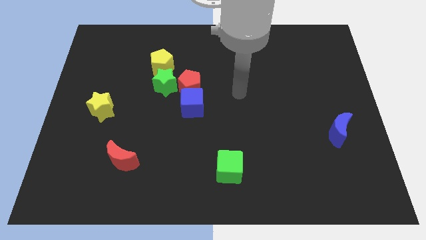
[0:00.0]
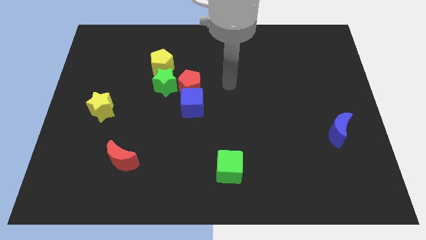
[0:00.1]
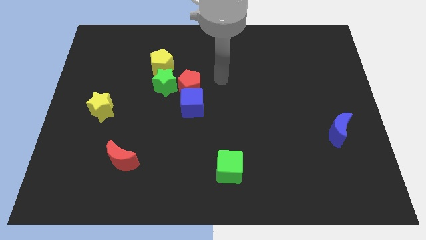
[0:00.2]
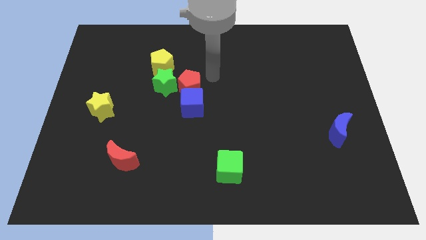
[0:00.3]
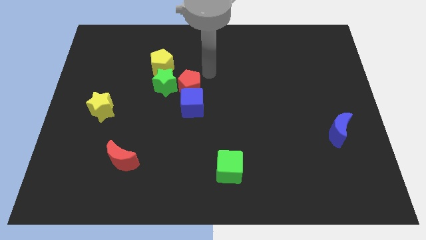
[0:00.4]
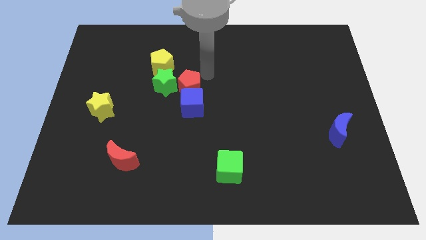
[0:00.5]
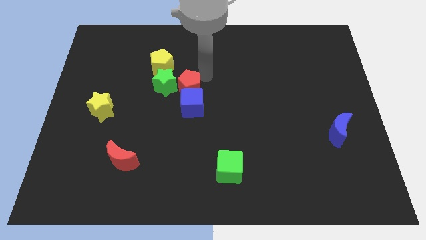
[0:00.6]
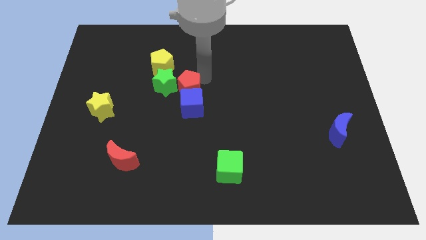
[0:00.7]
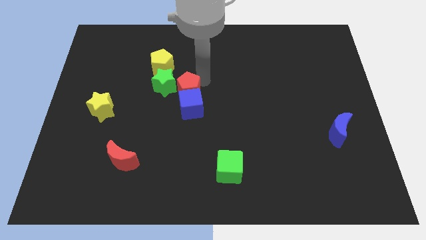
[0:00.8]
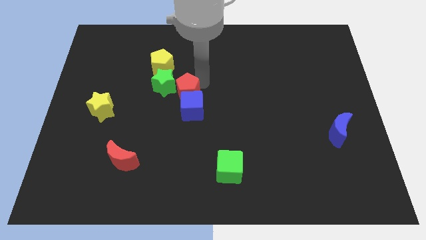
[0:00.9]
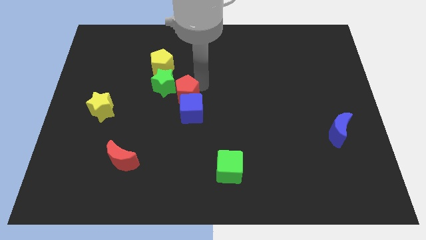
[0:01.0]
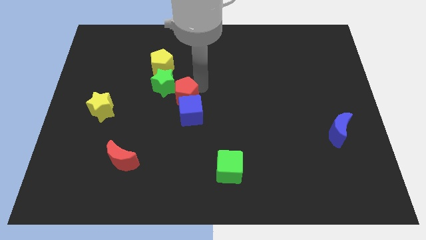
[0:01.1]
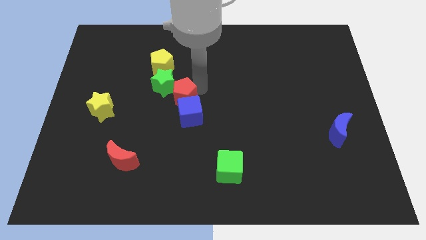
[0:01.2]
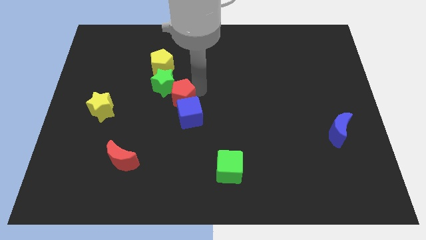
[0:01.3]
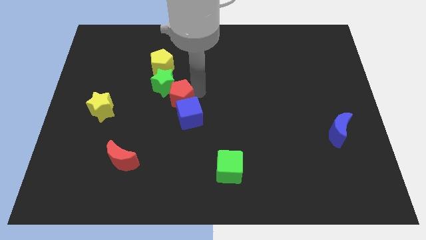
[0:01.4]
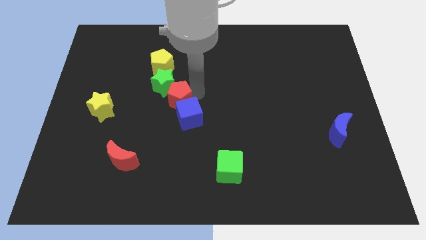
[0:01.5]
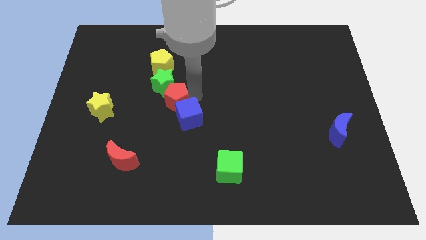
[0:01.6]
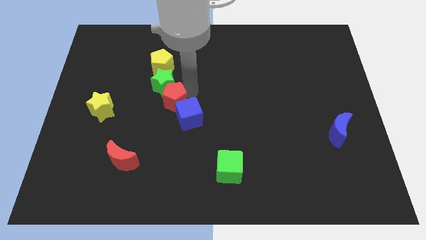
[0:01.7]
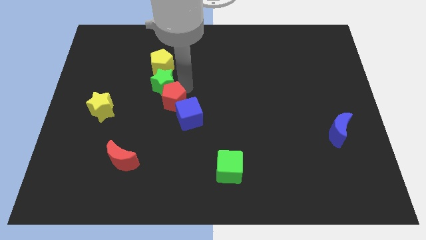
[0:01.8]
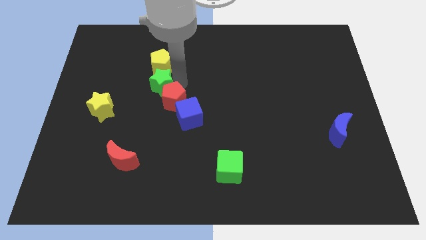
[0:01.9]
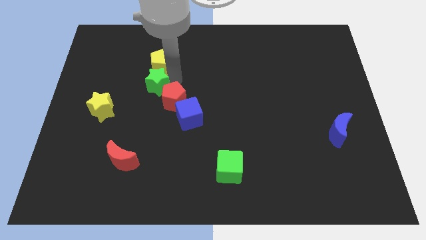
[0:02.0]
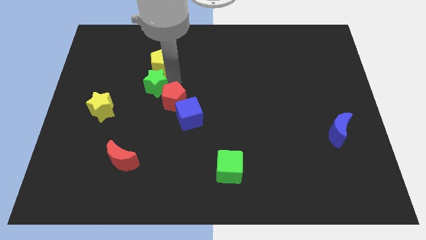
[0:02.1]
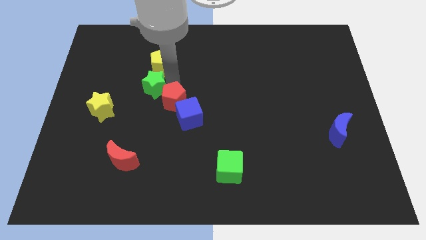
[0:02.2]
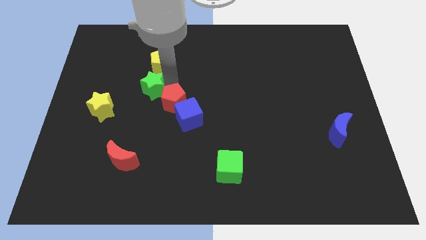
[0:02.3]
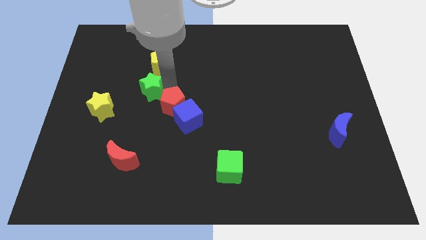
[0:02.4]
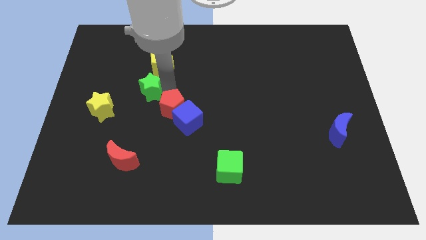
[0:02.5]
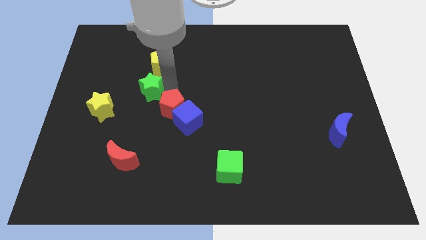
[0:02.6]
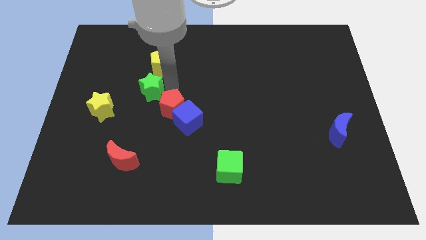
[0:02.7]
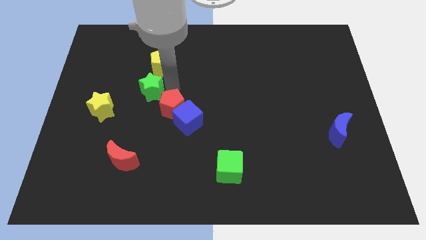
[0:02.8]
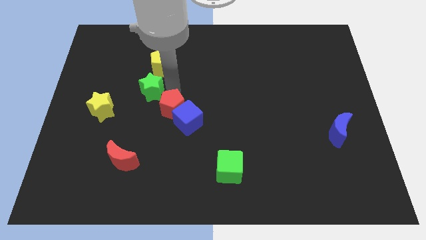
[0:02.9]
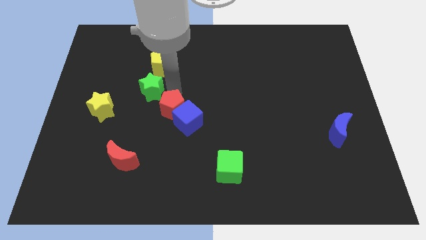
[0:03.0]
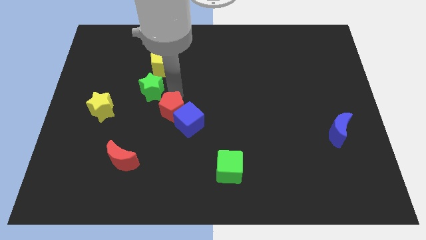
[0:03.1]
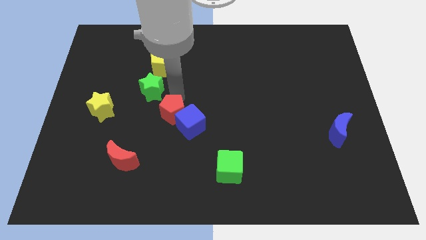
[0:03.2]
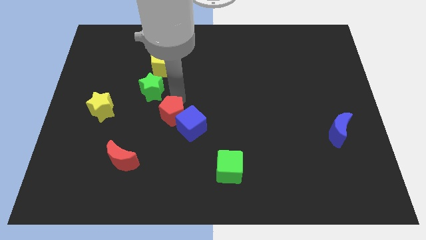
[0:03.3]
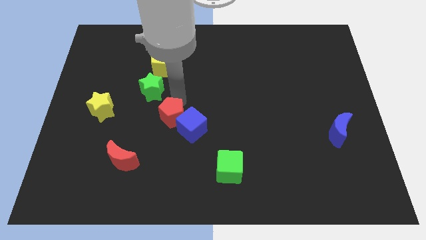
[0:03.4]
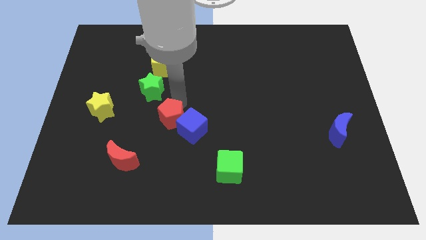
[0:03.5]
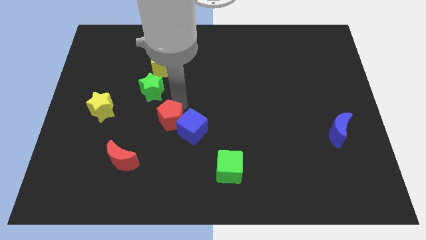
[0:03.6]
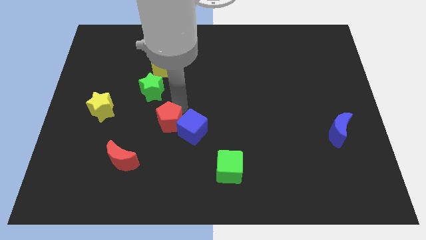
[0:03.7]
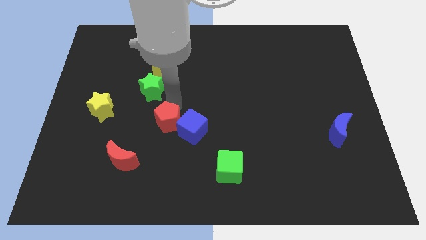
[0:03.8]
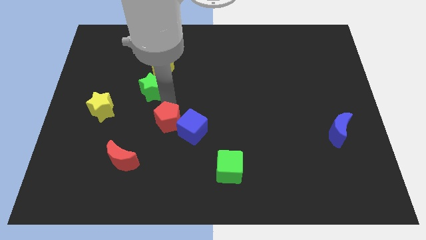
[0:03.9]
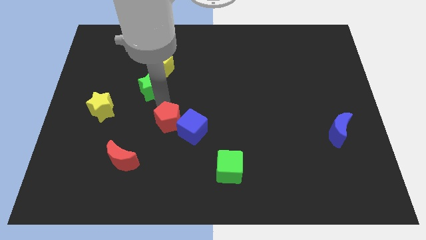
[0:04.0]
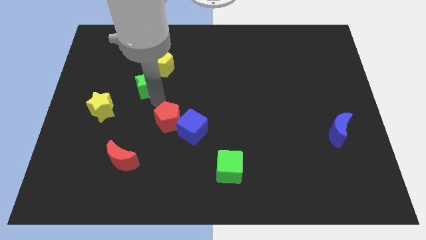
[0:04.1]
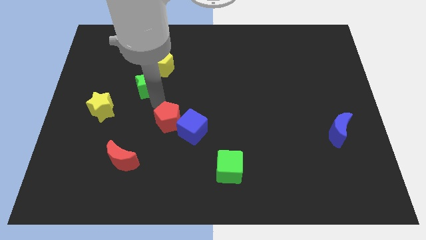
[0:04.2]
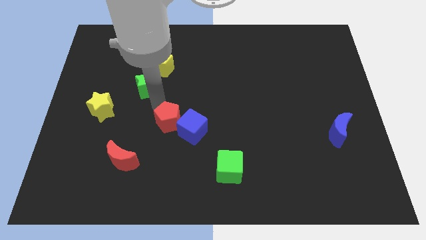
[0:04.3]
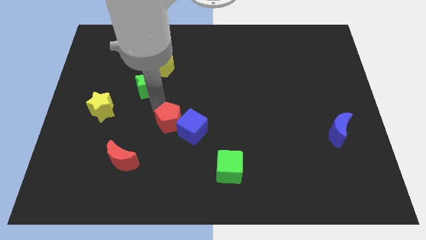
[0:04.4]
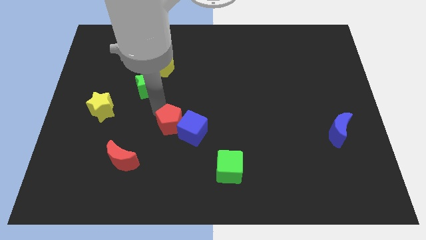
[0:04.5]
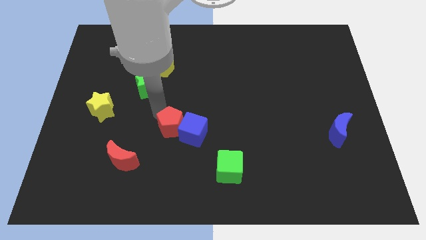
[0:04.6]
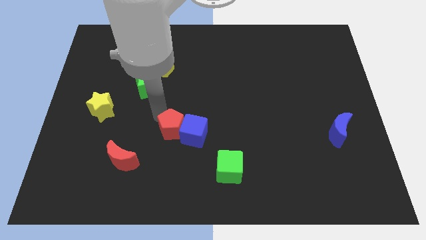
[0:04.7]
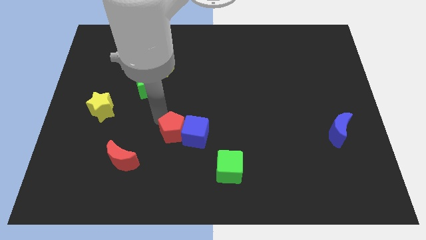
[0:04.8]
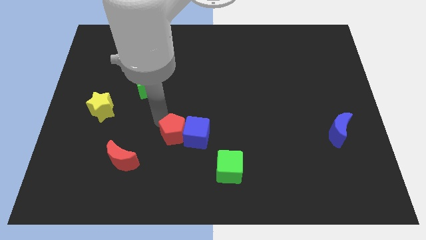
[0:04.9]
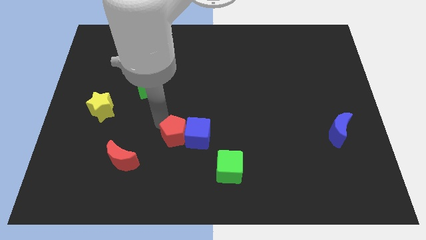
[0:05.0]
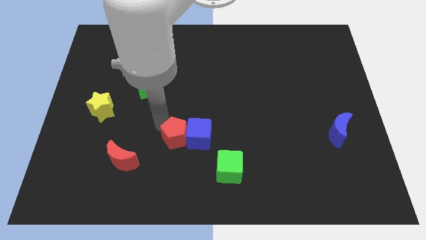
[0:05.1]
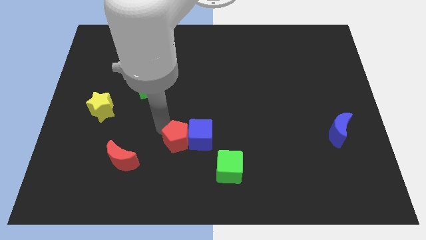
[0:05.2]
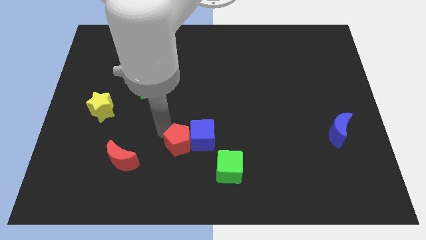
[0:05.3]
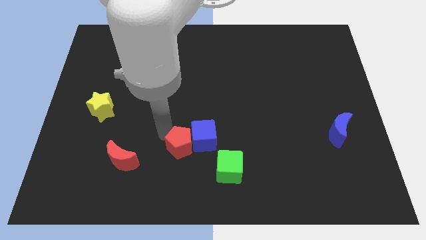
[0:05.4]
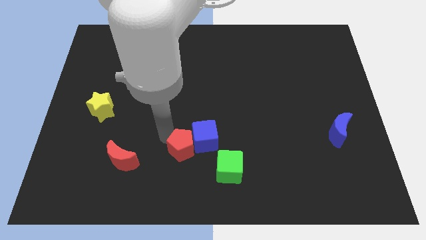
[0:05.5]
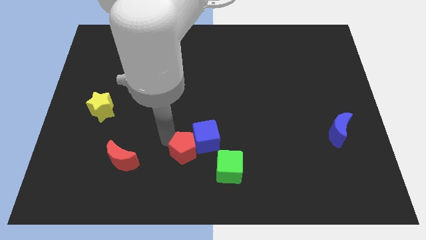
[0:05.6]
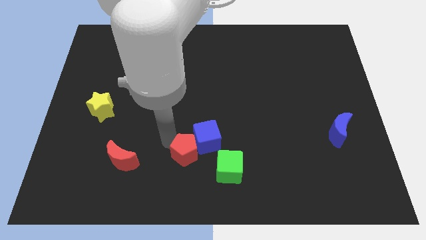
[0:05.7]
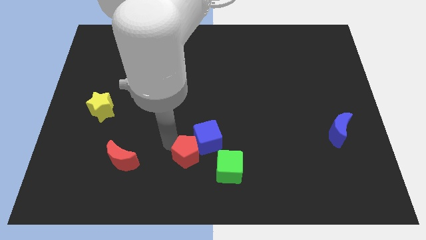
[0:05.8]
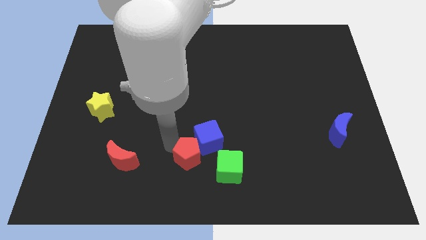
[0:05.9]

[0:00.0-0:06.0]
slide the red pentagon to the bottom side
